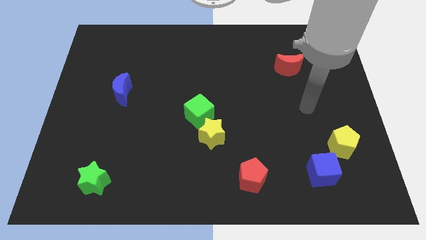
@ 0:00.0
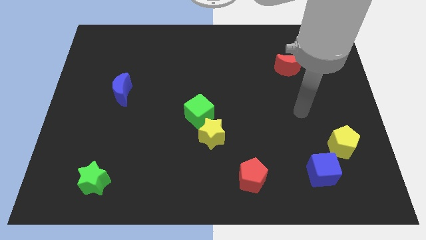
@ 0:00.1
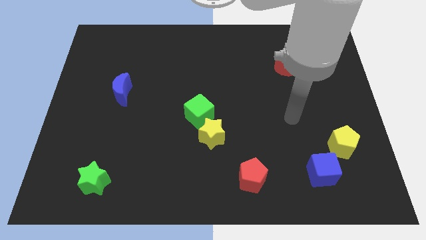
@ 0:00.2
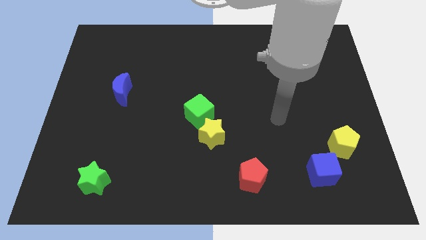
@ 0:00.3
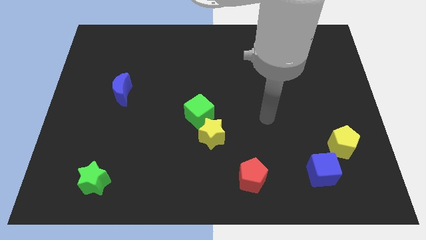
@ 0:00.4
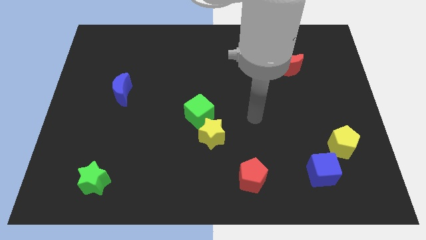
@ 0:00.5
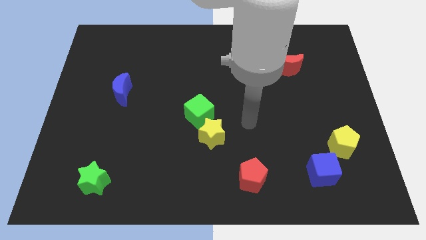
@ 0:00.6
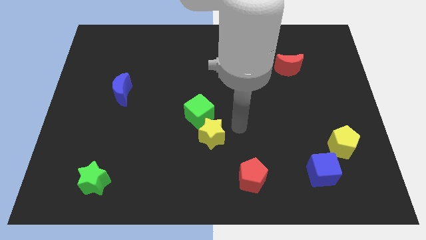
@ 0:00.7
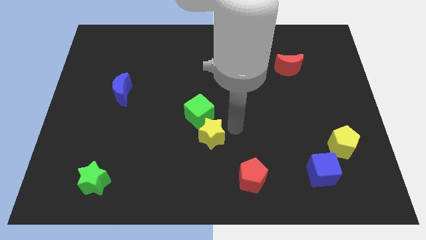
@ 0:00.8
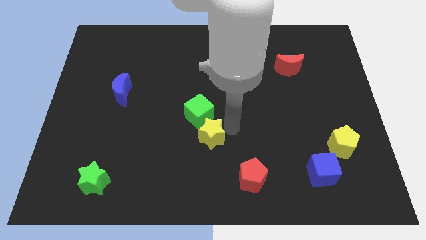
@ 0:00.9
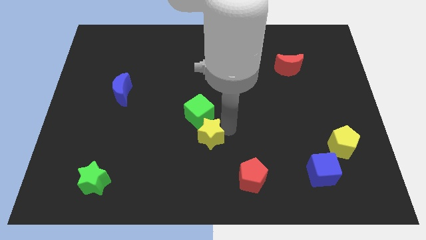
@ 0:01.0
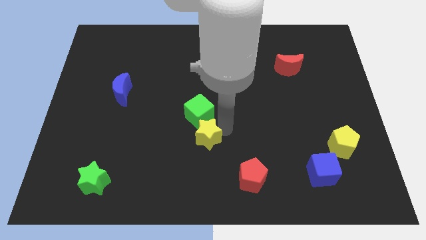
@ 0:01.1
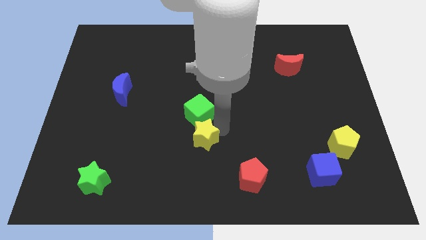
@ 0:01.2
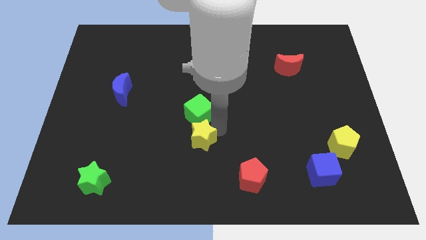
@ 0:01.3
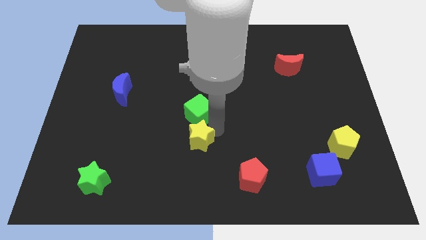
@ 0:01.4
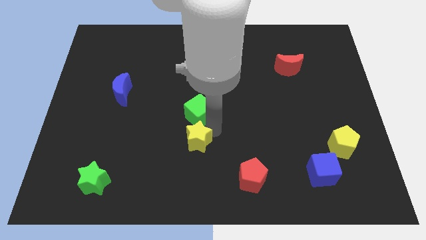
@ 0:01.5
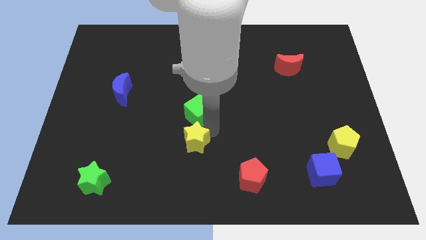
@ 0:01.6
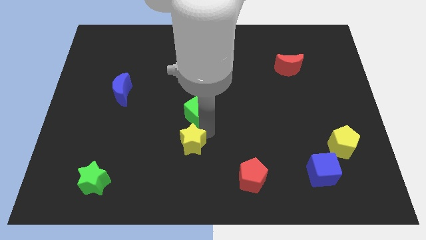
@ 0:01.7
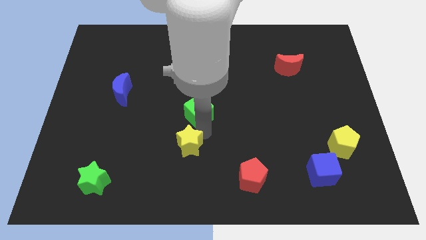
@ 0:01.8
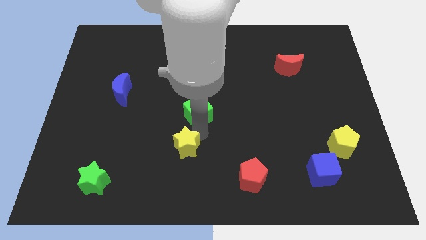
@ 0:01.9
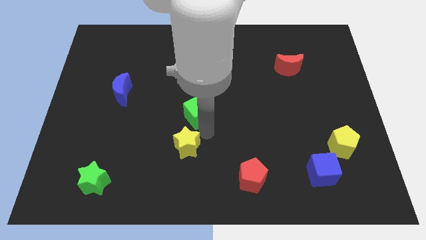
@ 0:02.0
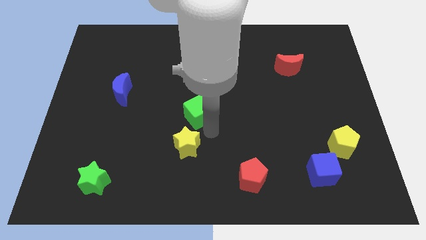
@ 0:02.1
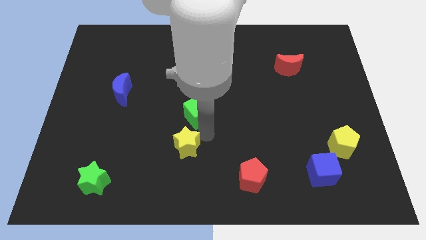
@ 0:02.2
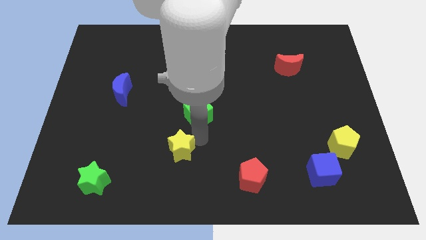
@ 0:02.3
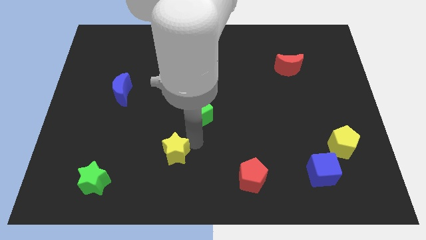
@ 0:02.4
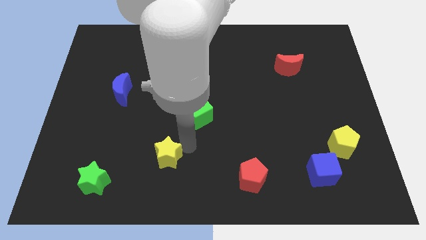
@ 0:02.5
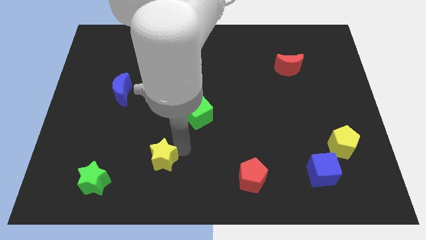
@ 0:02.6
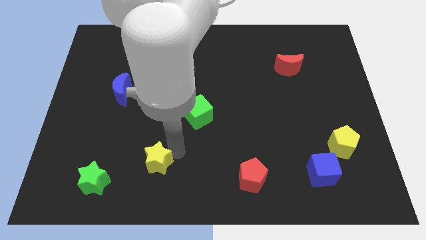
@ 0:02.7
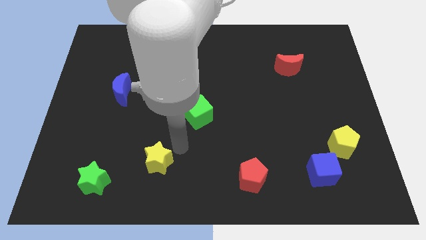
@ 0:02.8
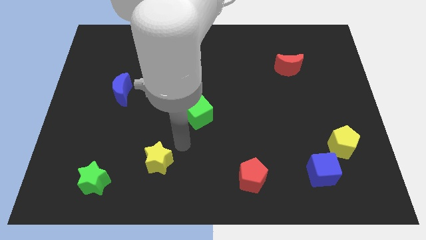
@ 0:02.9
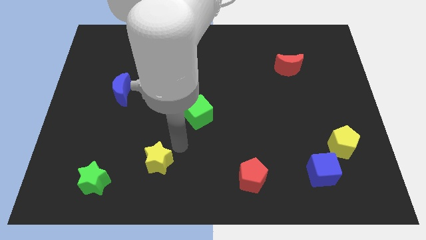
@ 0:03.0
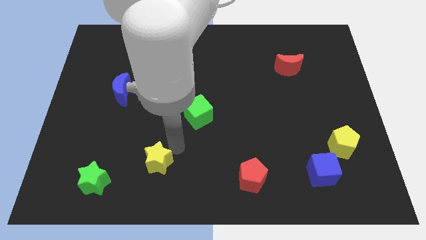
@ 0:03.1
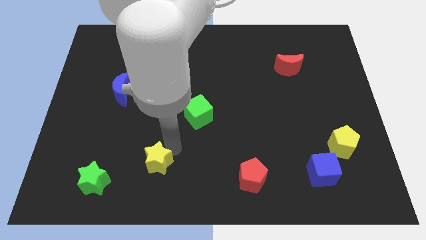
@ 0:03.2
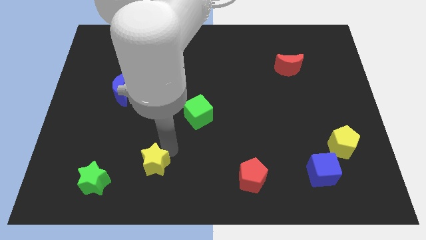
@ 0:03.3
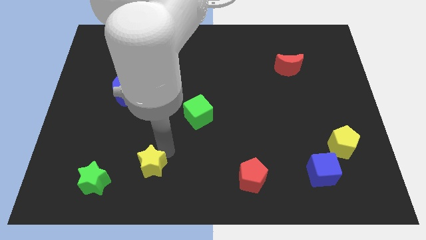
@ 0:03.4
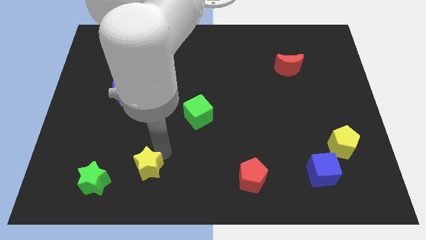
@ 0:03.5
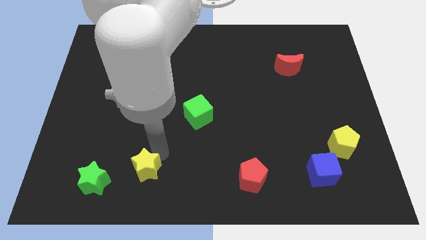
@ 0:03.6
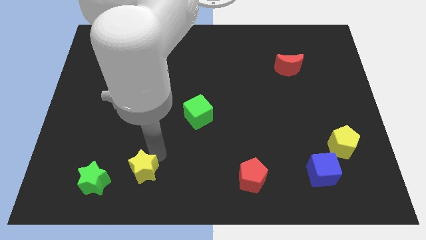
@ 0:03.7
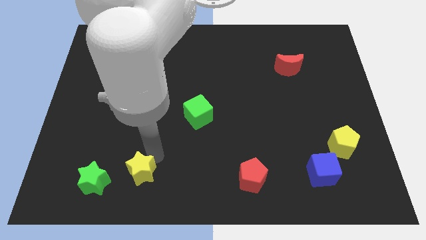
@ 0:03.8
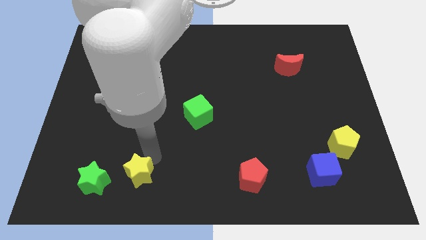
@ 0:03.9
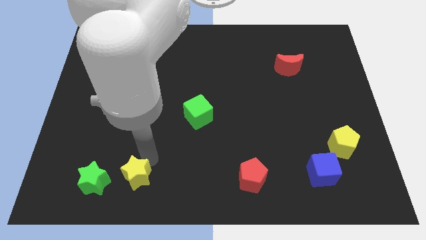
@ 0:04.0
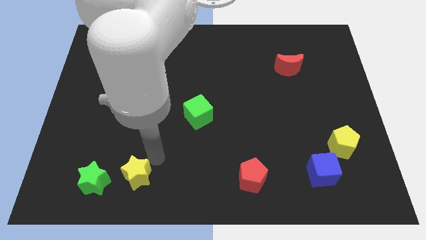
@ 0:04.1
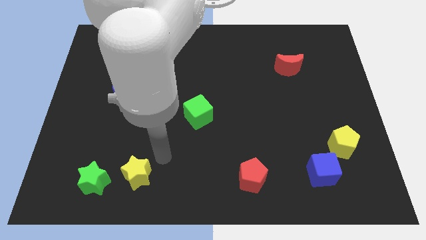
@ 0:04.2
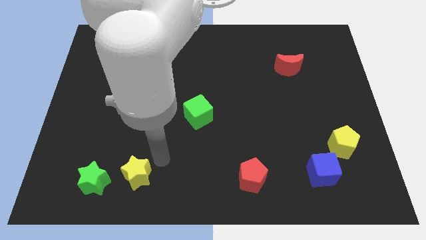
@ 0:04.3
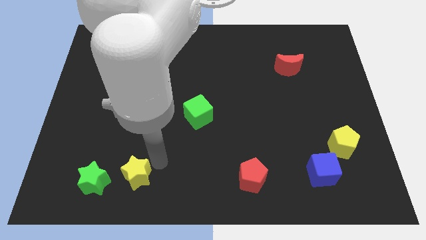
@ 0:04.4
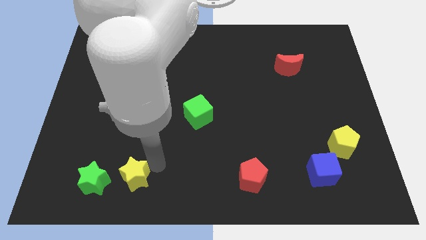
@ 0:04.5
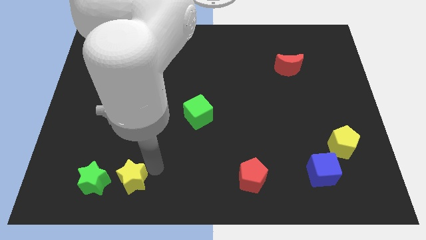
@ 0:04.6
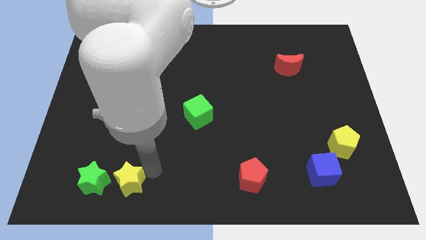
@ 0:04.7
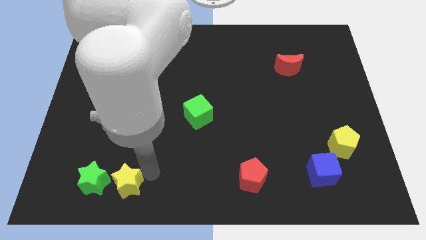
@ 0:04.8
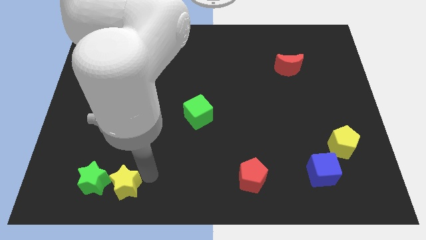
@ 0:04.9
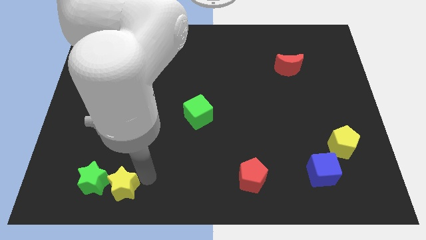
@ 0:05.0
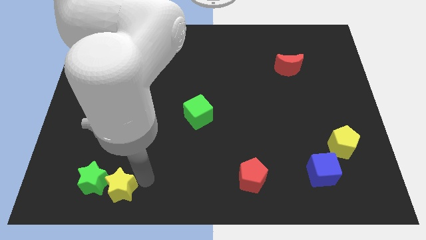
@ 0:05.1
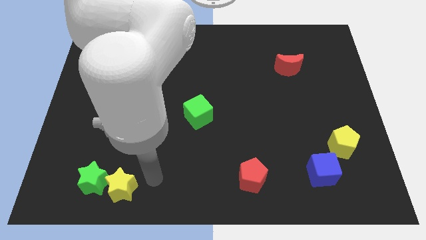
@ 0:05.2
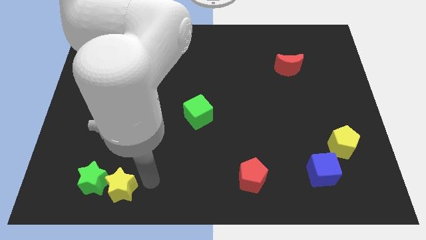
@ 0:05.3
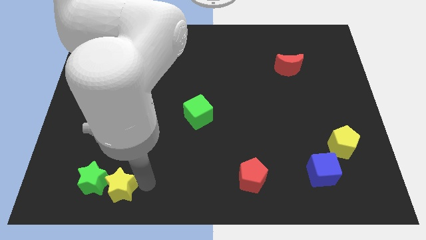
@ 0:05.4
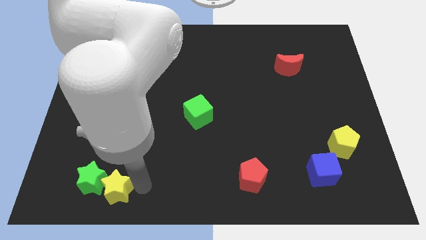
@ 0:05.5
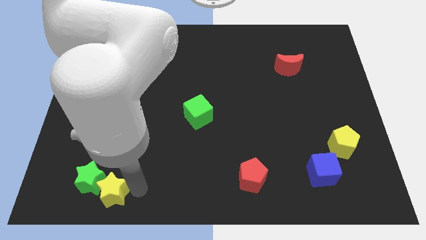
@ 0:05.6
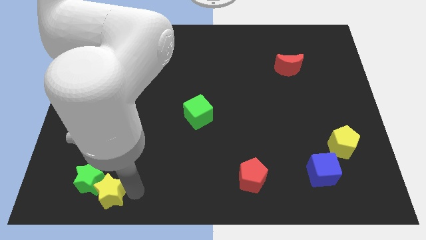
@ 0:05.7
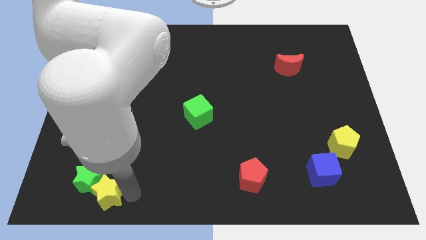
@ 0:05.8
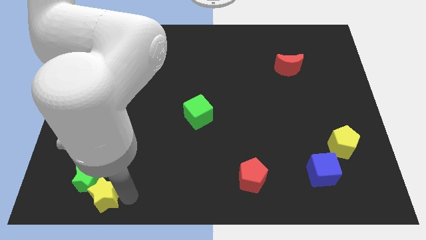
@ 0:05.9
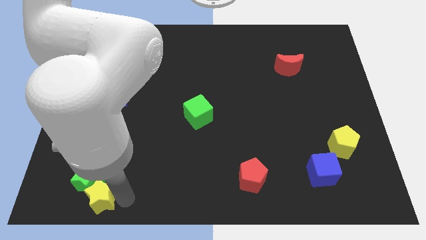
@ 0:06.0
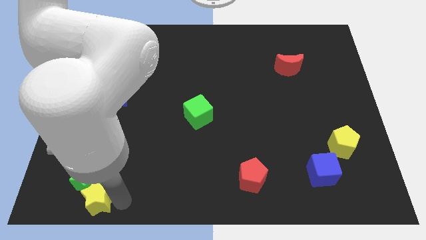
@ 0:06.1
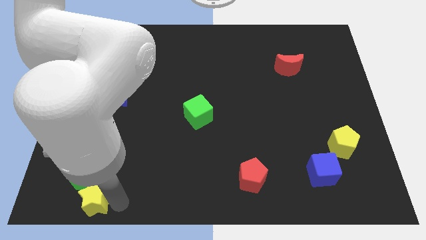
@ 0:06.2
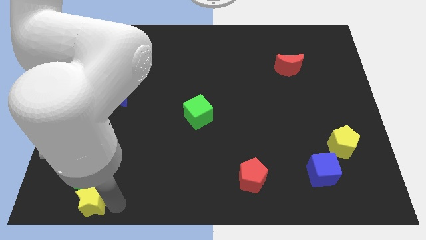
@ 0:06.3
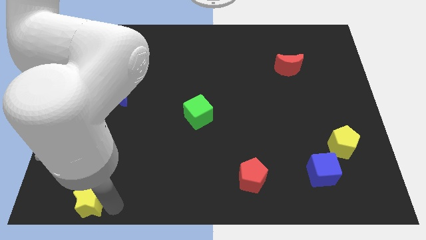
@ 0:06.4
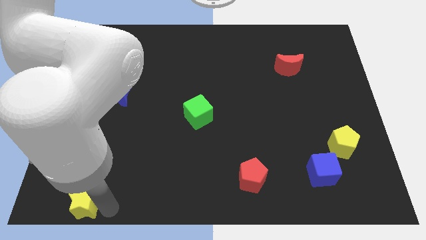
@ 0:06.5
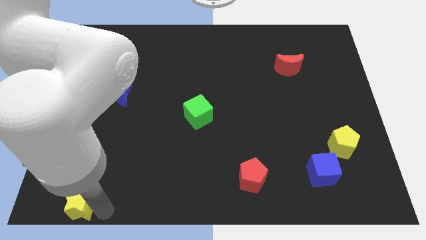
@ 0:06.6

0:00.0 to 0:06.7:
put the yellow star to the lower left corner
